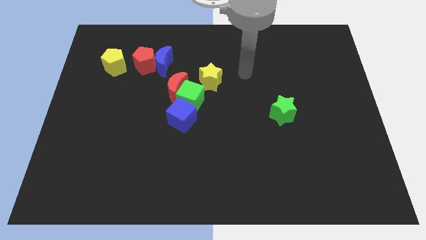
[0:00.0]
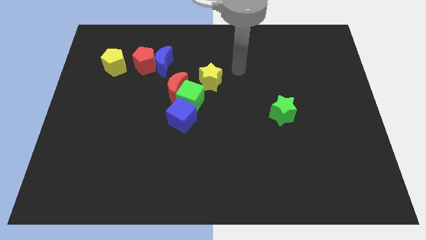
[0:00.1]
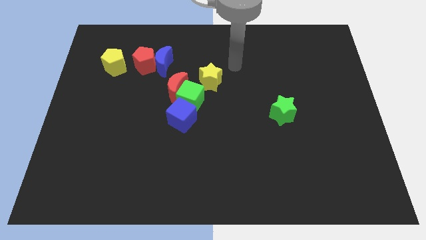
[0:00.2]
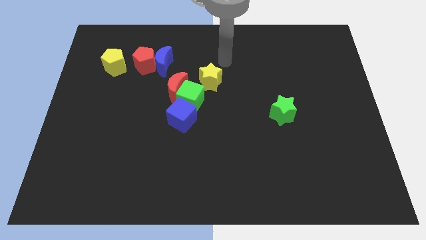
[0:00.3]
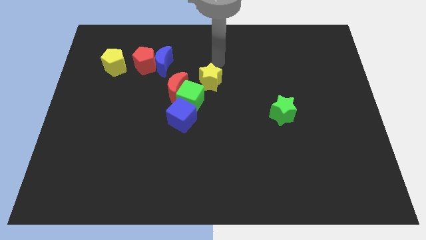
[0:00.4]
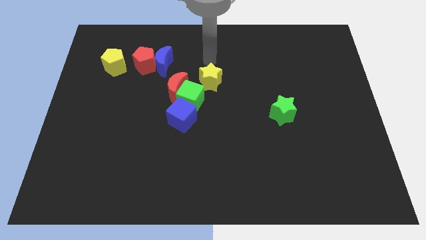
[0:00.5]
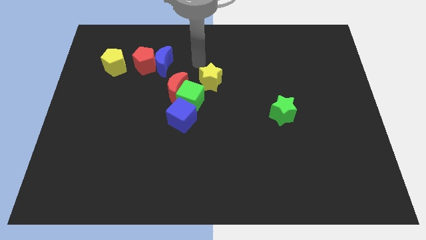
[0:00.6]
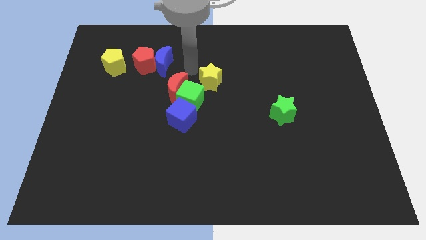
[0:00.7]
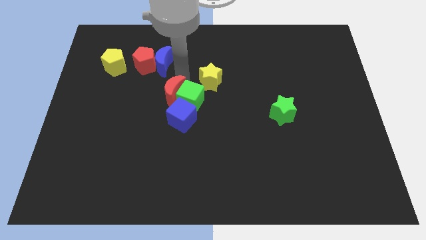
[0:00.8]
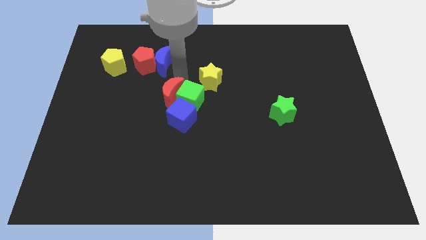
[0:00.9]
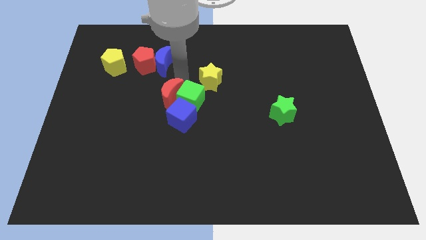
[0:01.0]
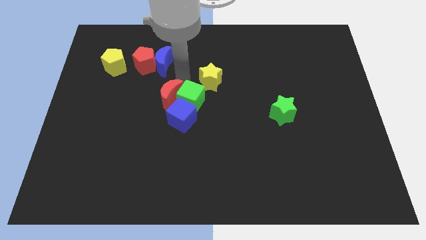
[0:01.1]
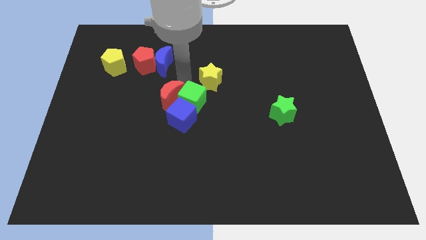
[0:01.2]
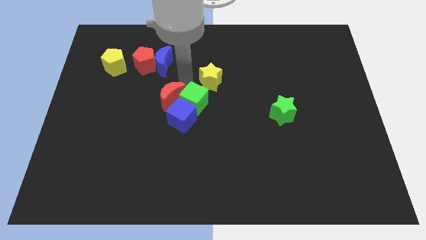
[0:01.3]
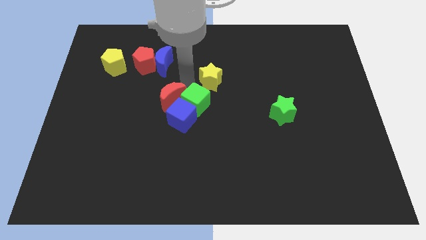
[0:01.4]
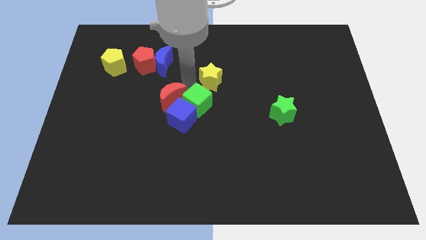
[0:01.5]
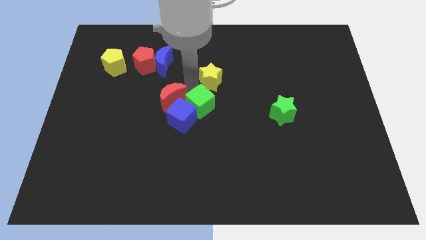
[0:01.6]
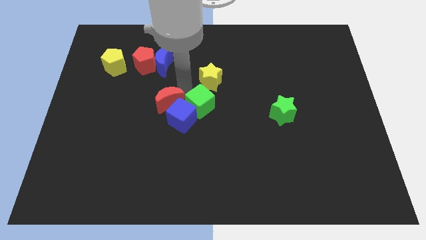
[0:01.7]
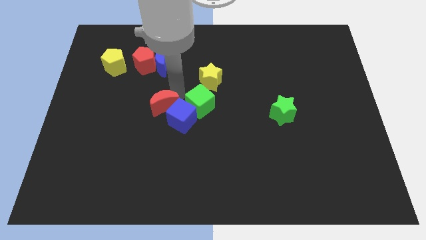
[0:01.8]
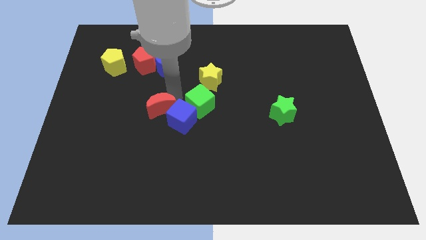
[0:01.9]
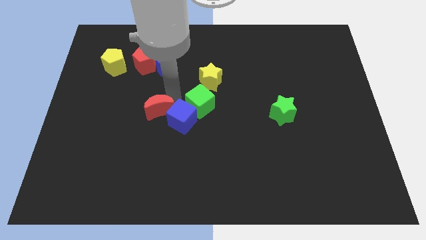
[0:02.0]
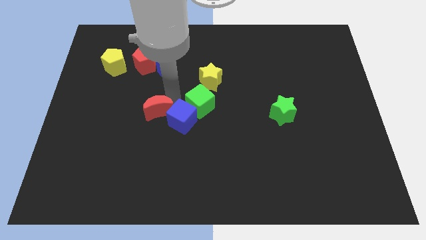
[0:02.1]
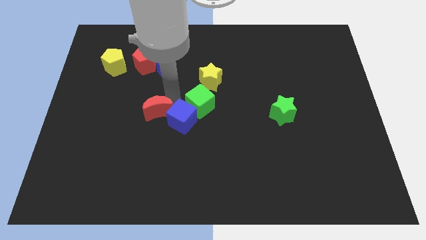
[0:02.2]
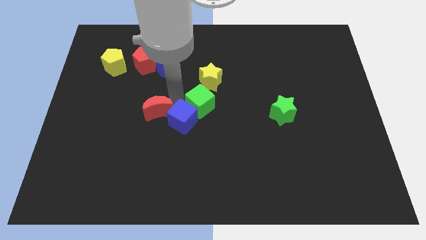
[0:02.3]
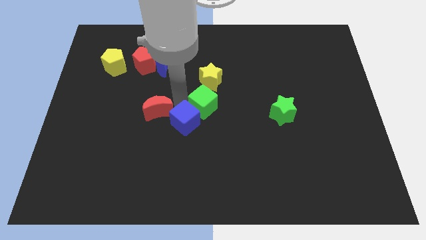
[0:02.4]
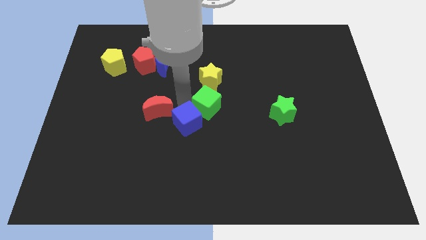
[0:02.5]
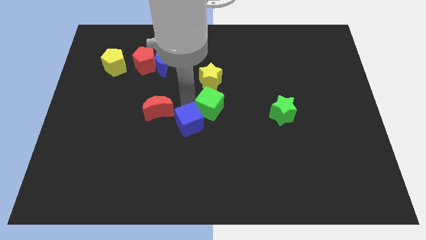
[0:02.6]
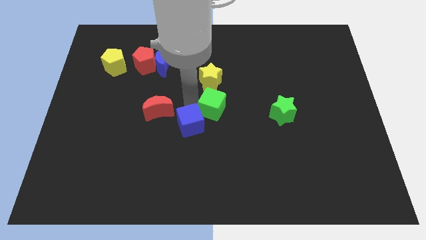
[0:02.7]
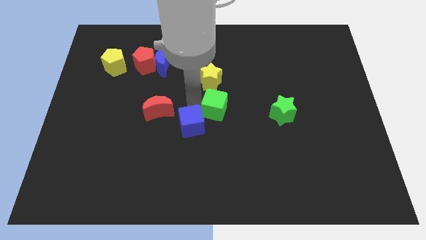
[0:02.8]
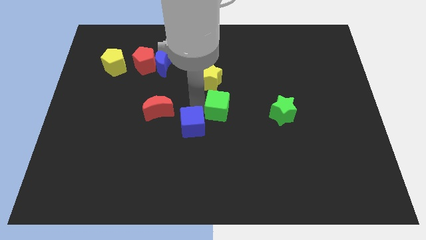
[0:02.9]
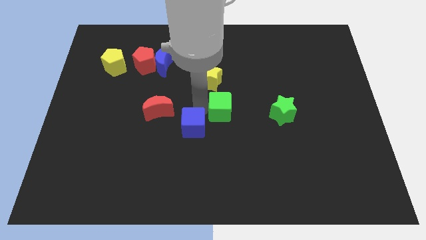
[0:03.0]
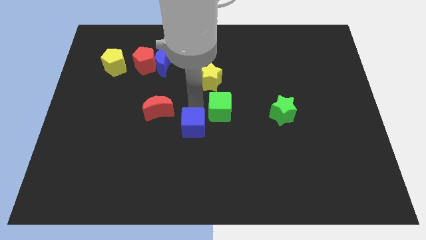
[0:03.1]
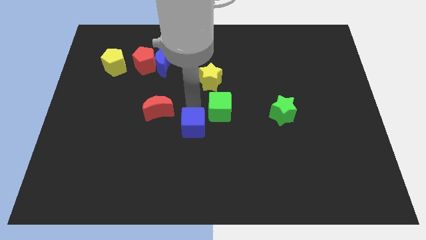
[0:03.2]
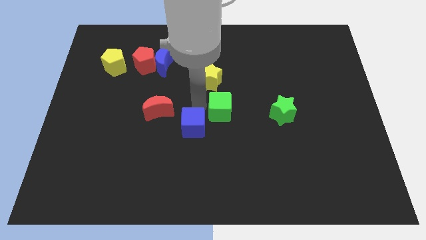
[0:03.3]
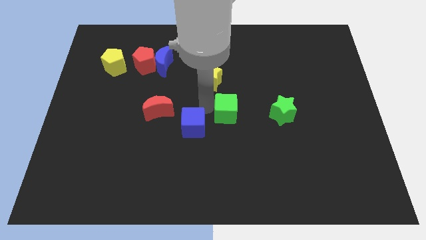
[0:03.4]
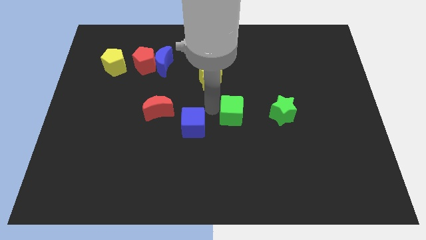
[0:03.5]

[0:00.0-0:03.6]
move the green cube away from the red moon, blue cube, and yellow star

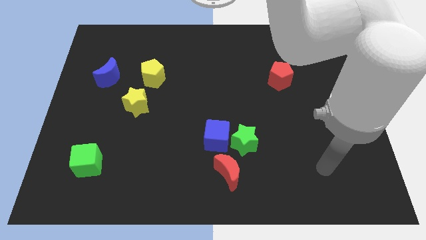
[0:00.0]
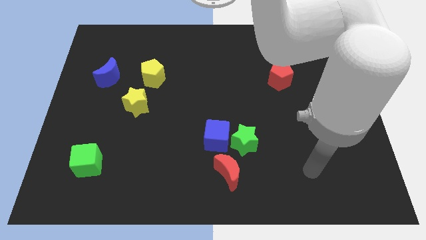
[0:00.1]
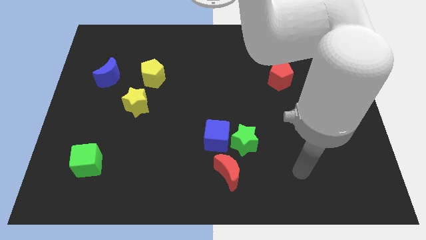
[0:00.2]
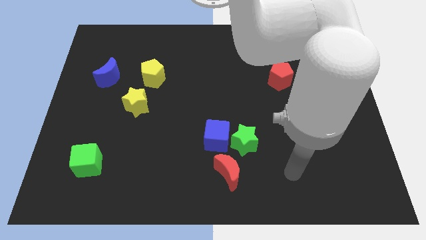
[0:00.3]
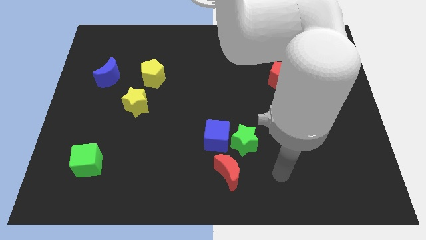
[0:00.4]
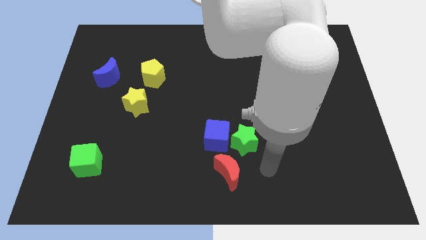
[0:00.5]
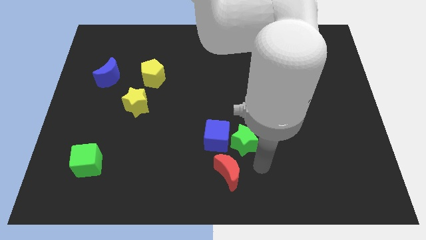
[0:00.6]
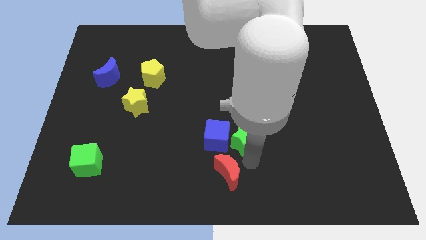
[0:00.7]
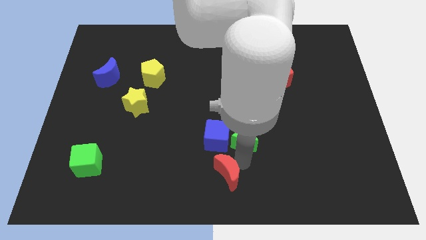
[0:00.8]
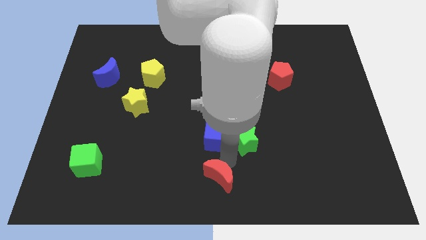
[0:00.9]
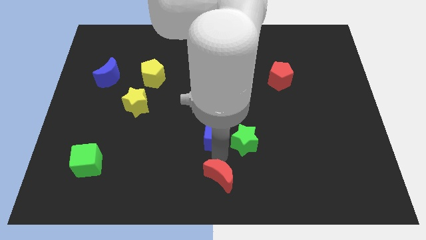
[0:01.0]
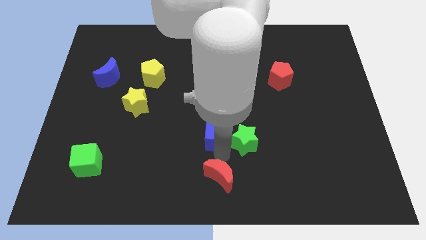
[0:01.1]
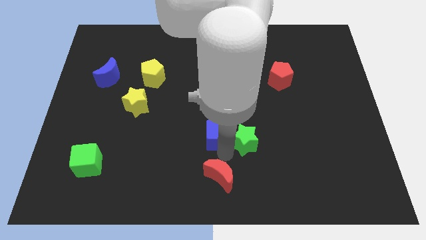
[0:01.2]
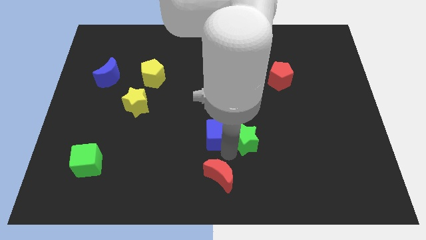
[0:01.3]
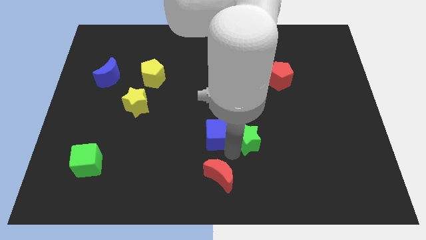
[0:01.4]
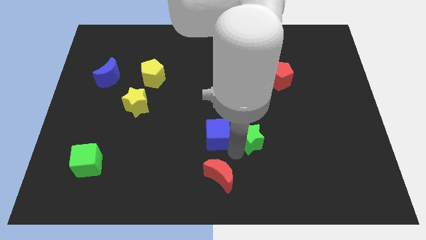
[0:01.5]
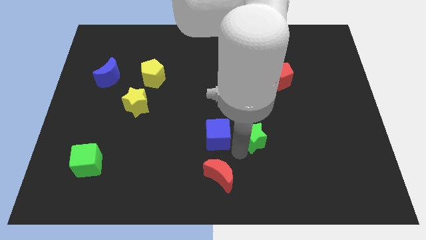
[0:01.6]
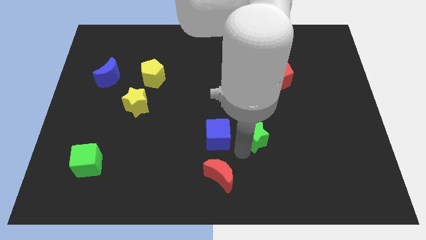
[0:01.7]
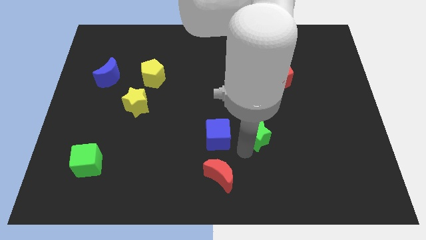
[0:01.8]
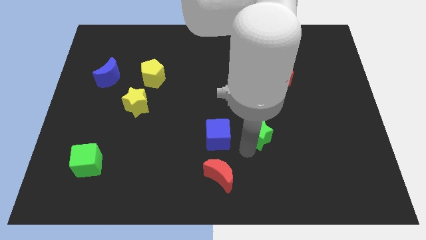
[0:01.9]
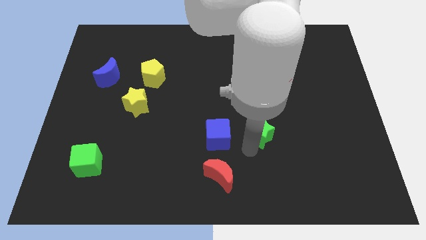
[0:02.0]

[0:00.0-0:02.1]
pull the green star apart from the blue cube and red moon

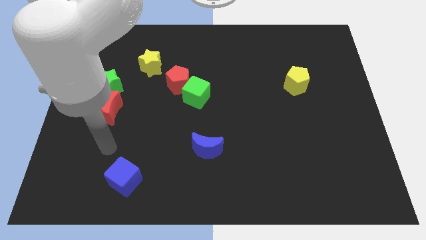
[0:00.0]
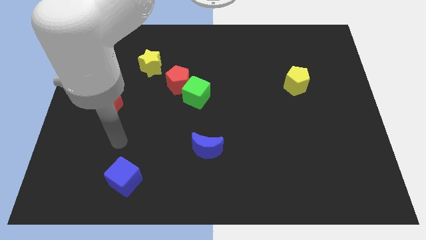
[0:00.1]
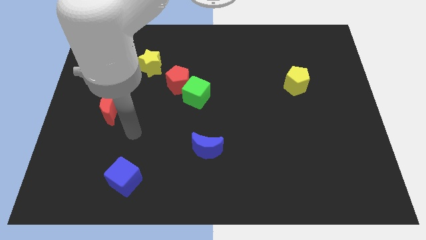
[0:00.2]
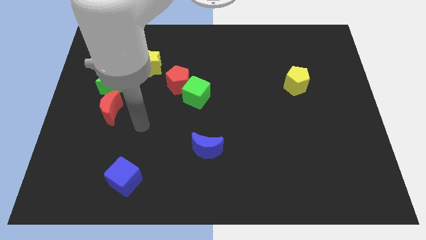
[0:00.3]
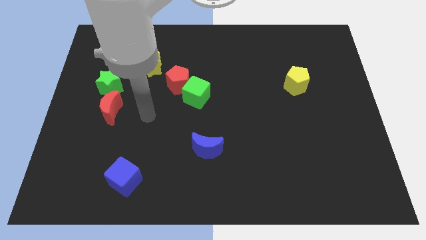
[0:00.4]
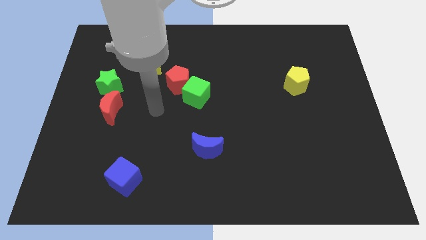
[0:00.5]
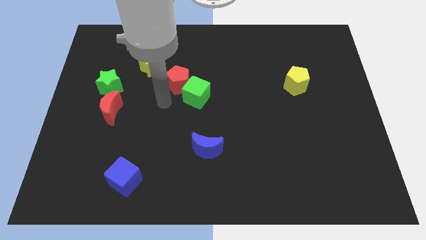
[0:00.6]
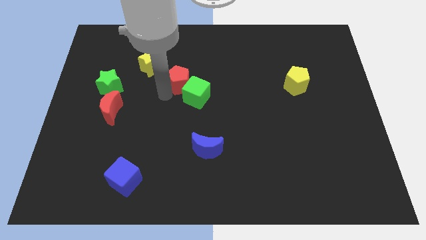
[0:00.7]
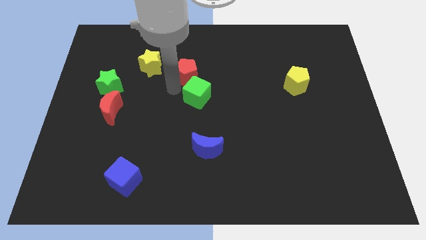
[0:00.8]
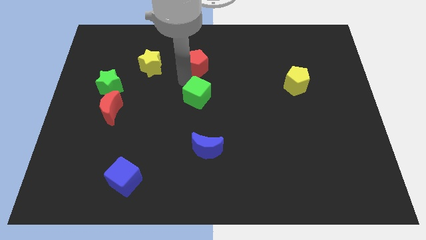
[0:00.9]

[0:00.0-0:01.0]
move the green cube away from the red pentagon

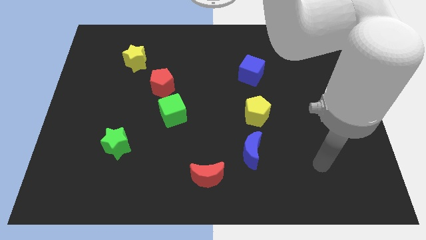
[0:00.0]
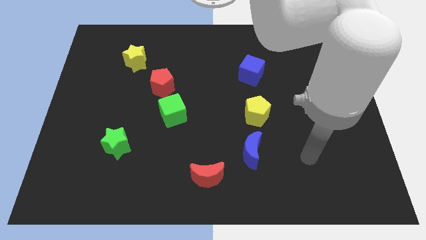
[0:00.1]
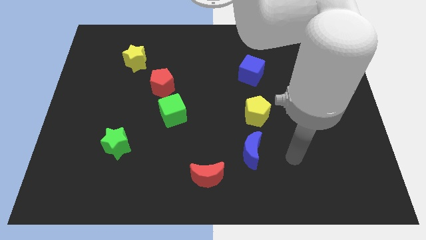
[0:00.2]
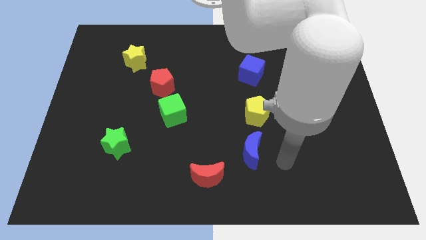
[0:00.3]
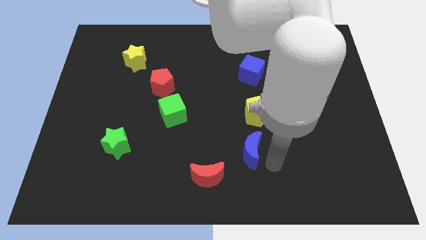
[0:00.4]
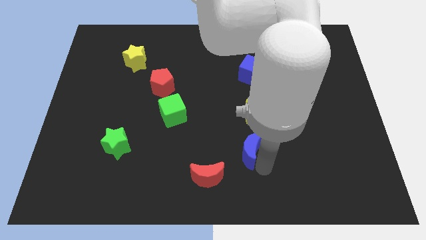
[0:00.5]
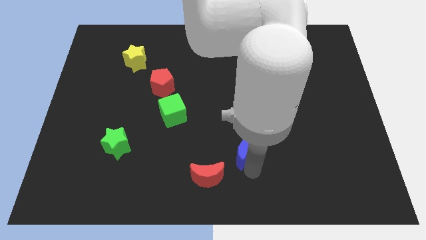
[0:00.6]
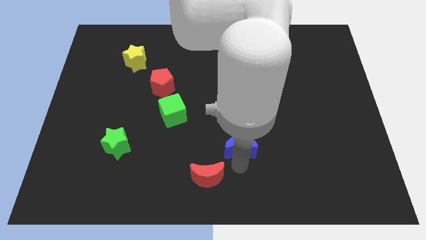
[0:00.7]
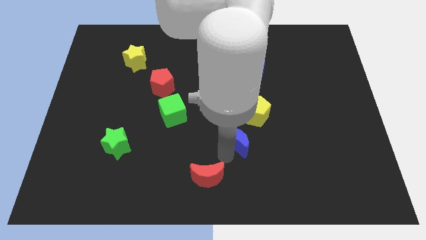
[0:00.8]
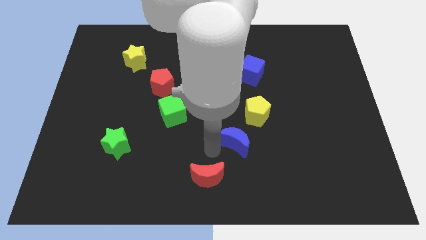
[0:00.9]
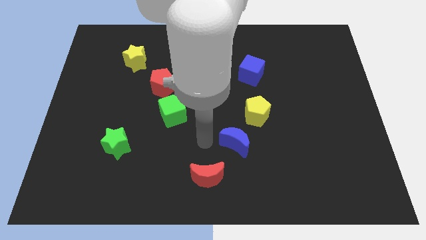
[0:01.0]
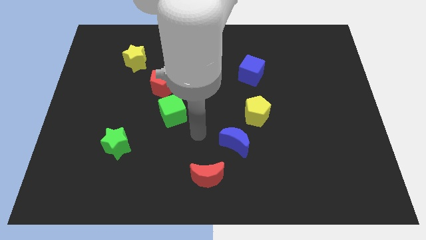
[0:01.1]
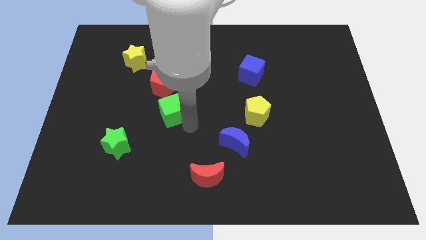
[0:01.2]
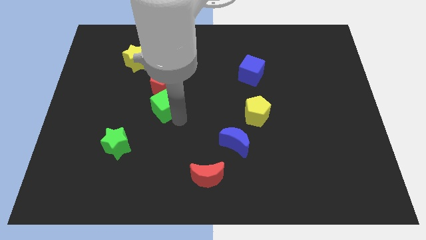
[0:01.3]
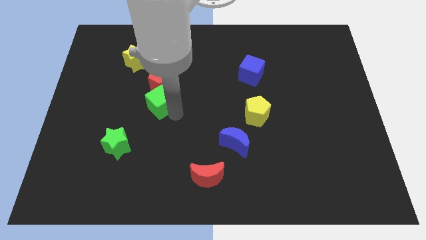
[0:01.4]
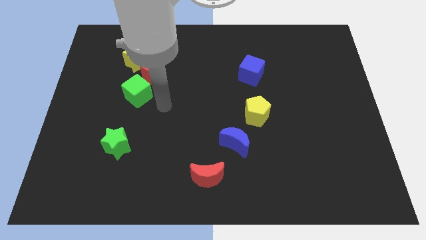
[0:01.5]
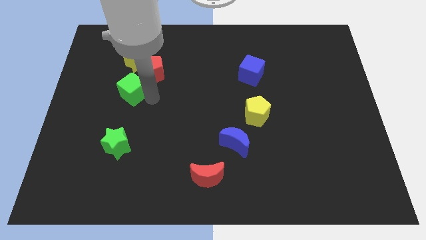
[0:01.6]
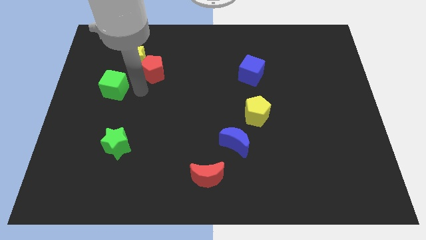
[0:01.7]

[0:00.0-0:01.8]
separate the red pentagon from the green cube

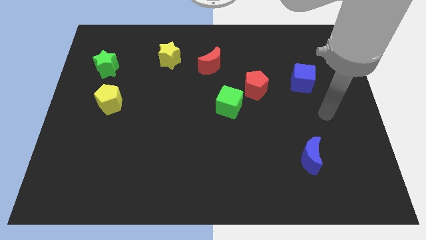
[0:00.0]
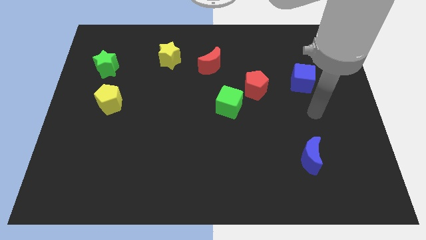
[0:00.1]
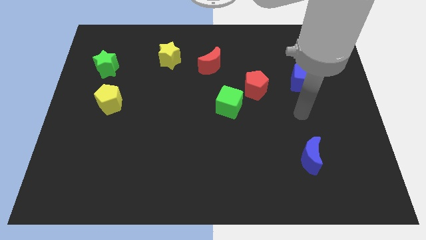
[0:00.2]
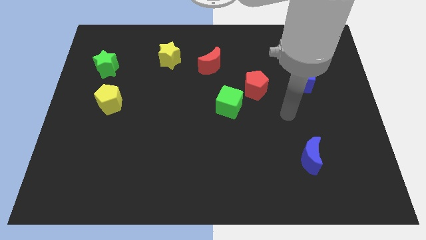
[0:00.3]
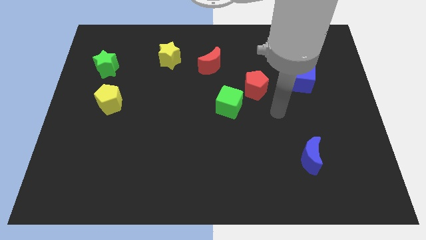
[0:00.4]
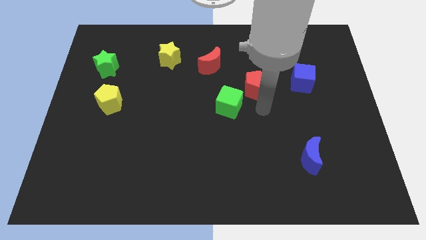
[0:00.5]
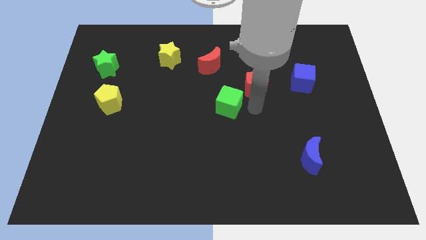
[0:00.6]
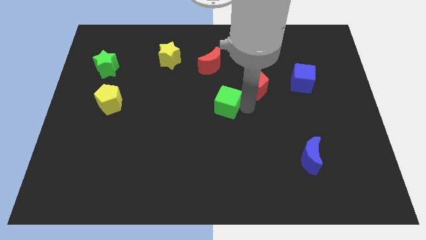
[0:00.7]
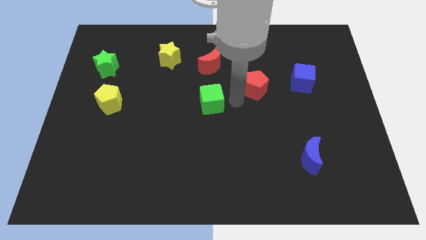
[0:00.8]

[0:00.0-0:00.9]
move the red pentagon away from the green cube
